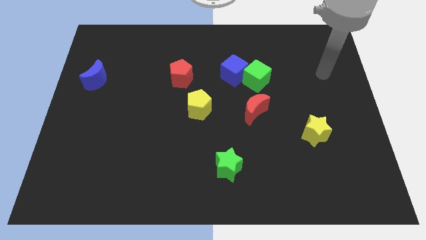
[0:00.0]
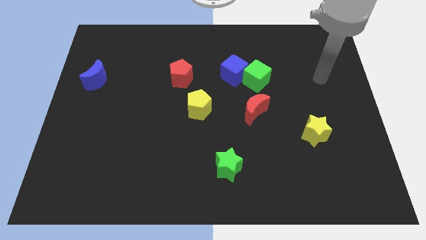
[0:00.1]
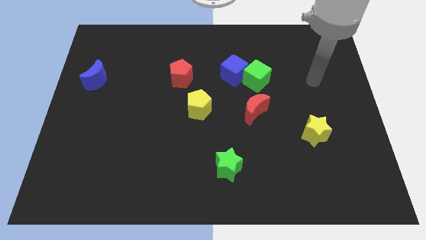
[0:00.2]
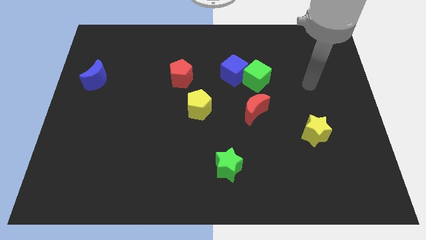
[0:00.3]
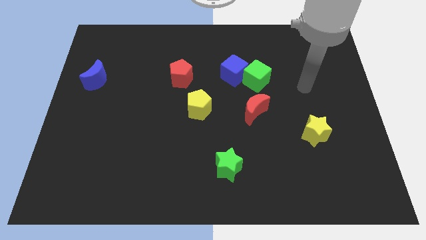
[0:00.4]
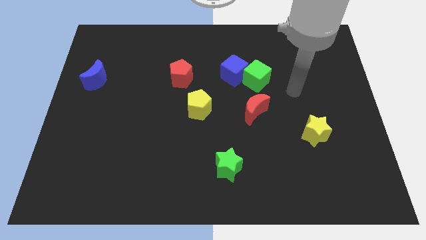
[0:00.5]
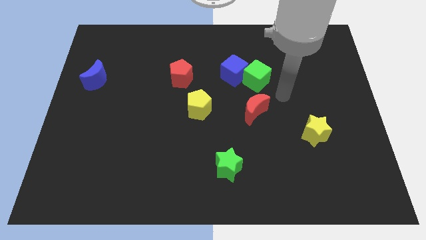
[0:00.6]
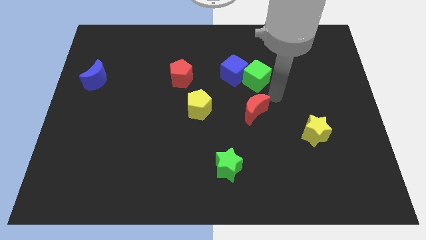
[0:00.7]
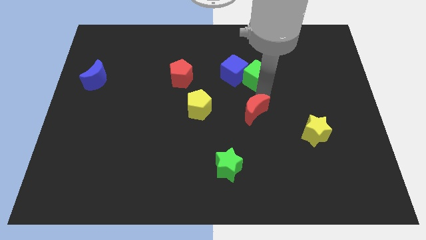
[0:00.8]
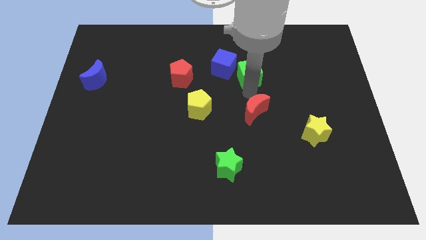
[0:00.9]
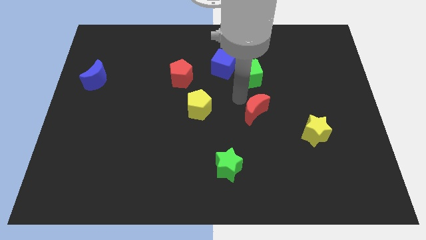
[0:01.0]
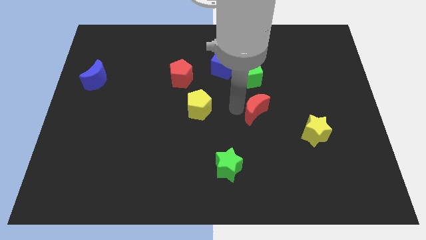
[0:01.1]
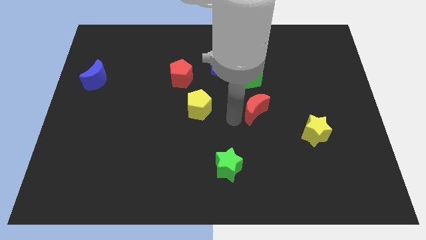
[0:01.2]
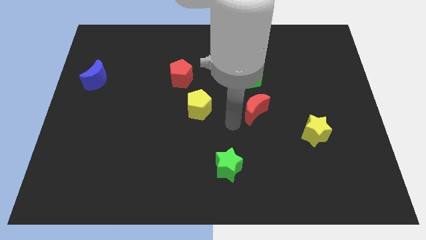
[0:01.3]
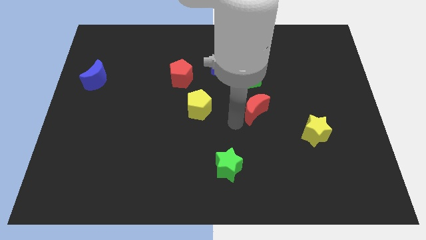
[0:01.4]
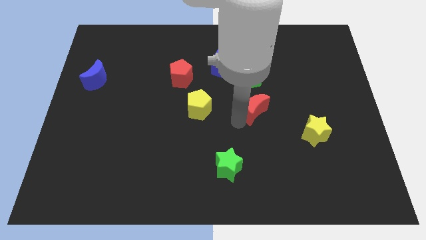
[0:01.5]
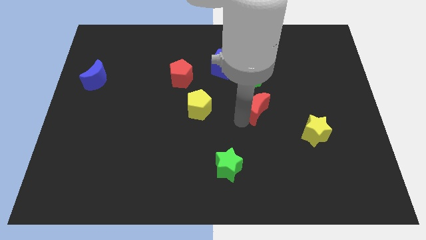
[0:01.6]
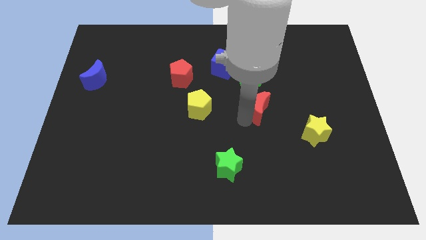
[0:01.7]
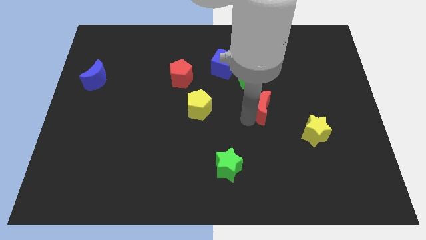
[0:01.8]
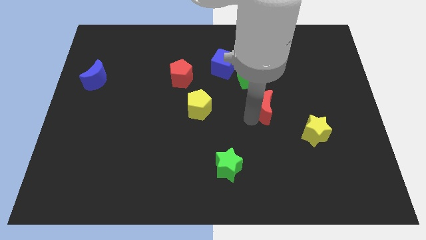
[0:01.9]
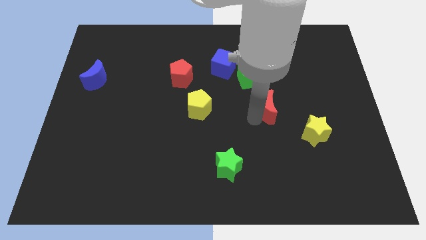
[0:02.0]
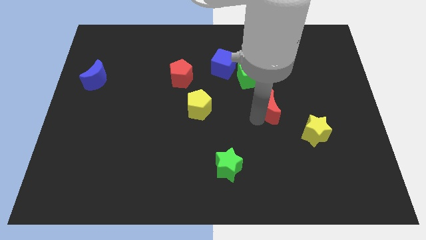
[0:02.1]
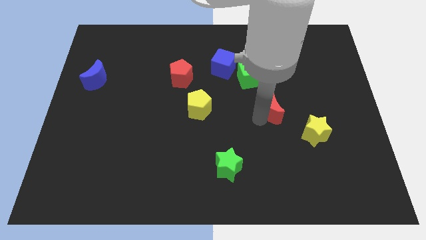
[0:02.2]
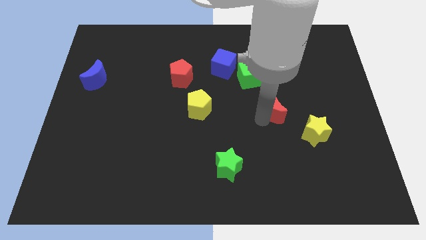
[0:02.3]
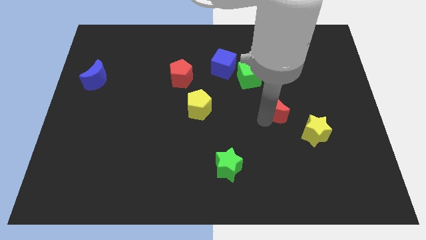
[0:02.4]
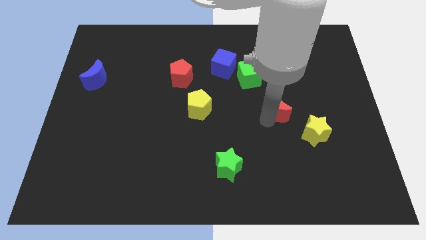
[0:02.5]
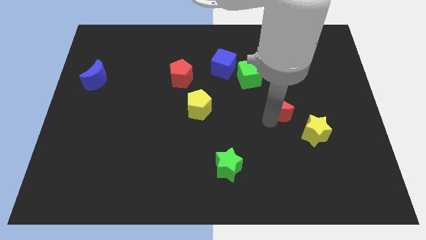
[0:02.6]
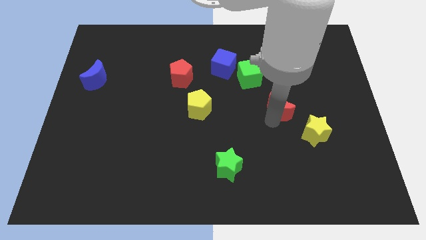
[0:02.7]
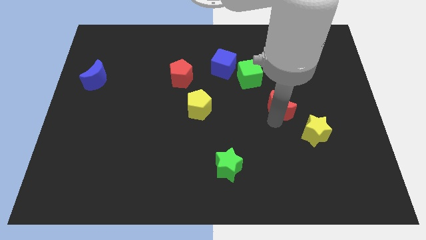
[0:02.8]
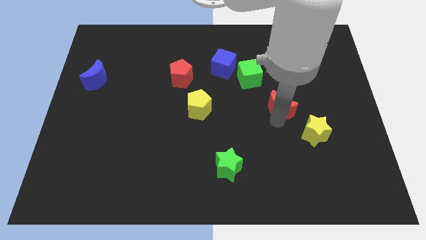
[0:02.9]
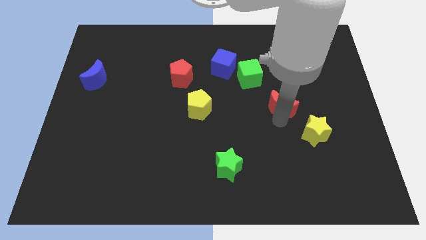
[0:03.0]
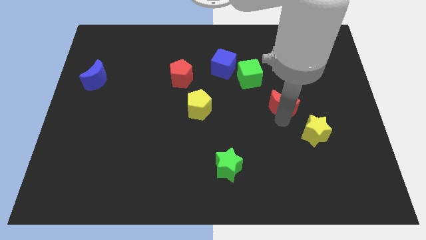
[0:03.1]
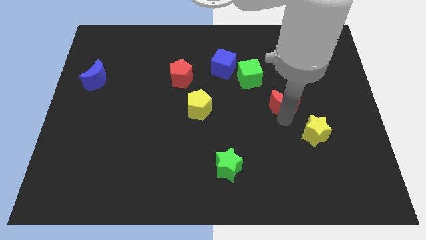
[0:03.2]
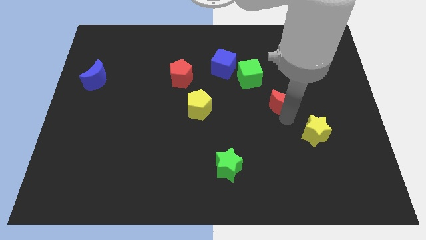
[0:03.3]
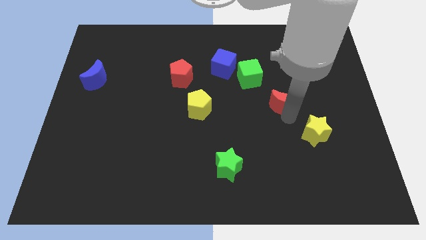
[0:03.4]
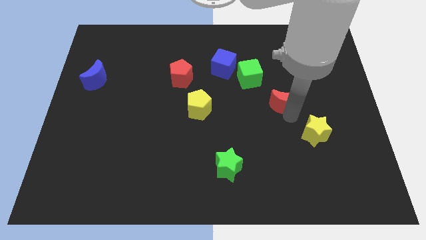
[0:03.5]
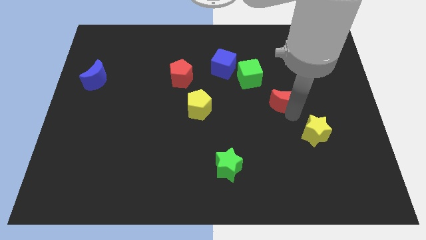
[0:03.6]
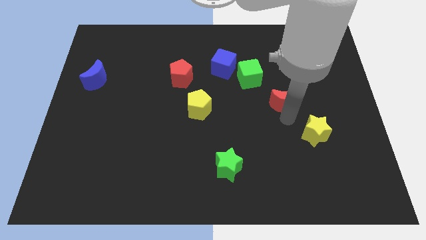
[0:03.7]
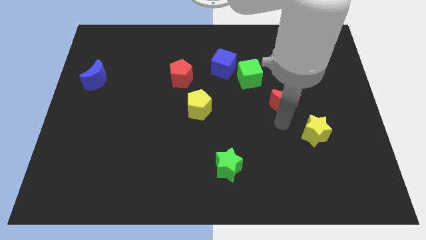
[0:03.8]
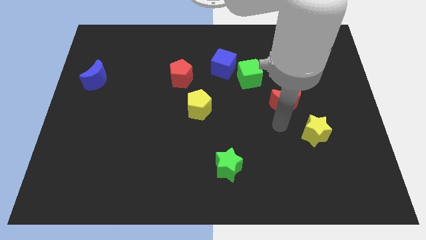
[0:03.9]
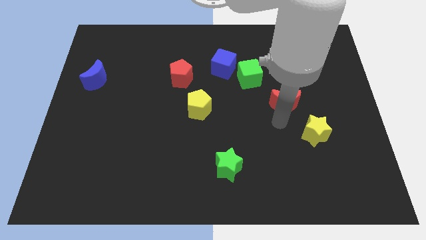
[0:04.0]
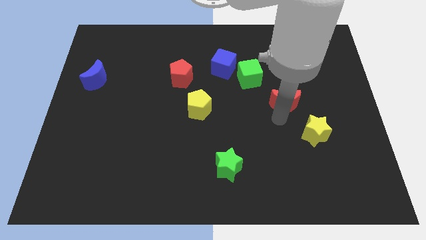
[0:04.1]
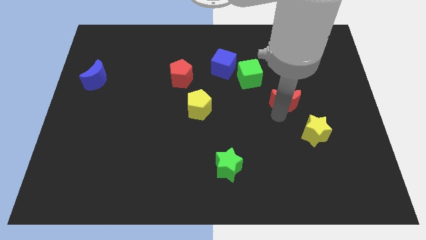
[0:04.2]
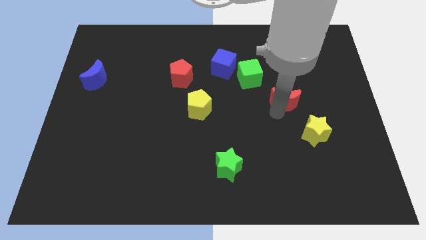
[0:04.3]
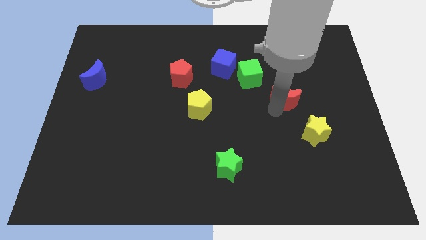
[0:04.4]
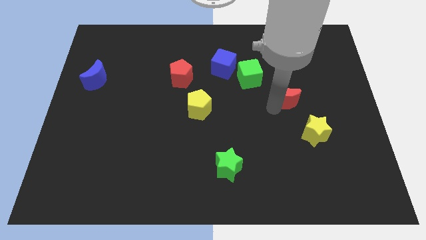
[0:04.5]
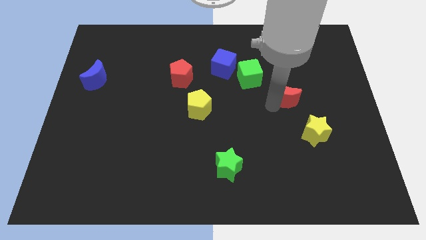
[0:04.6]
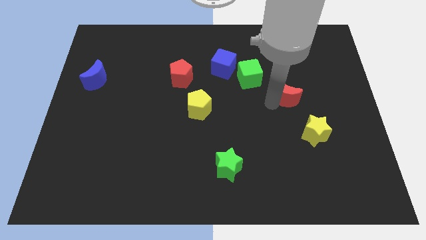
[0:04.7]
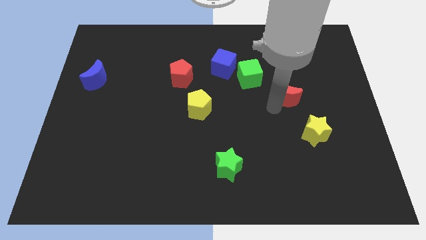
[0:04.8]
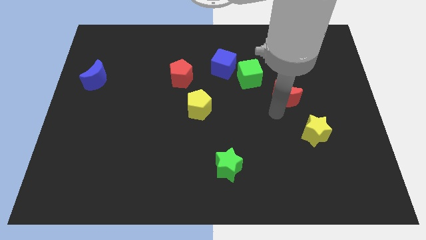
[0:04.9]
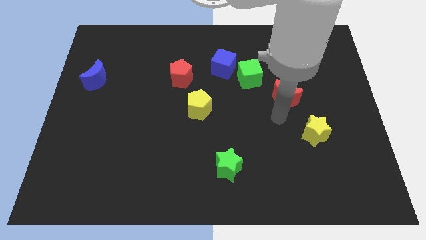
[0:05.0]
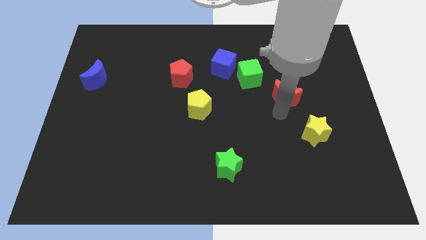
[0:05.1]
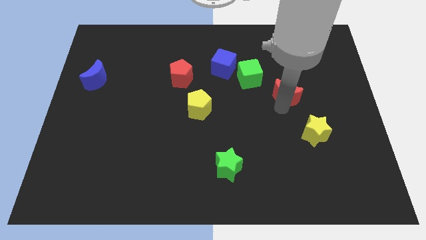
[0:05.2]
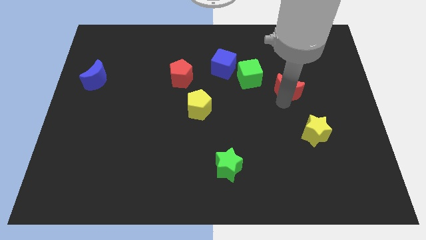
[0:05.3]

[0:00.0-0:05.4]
put the red moon right of the green cube

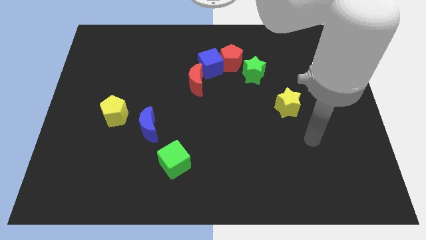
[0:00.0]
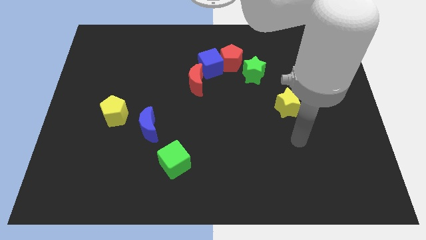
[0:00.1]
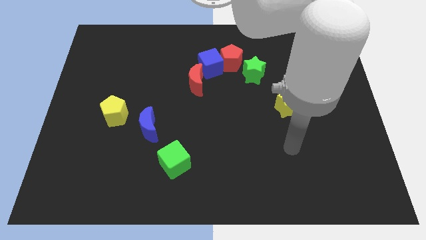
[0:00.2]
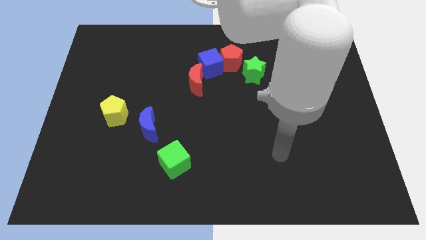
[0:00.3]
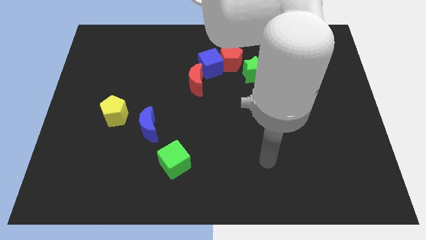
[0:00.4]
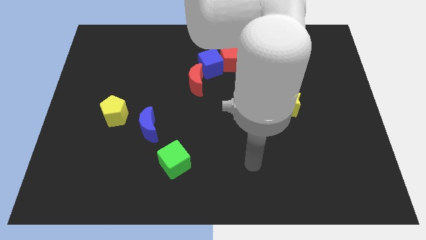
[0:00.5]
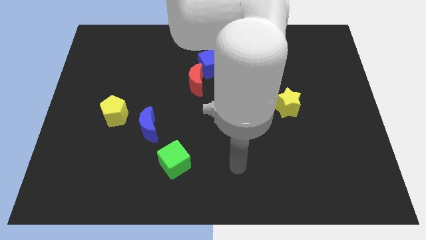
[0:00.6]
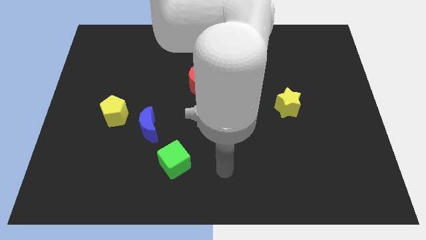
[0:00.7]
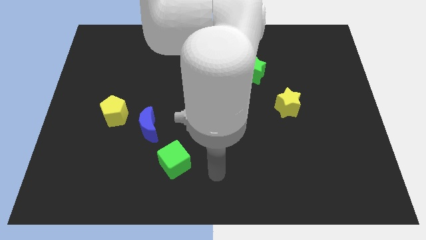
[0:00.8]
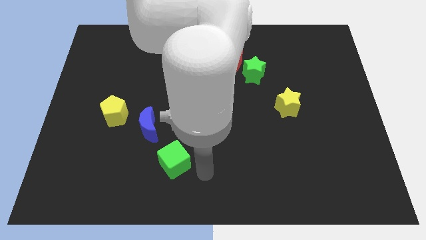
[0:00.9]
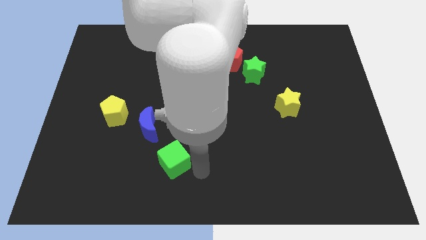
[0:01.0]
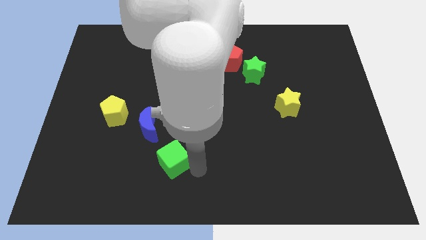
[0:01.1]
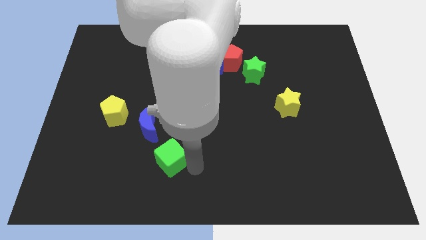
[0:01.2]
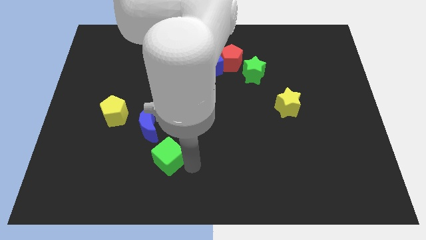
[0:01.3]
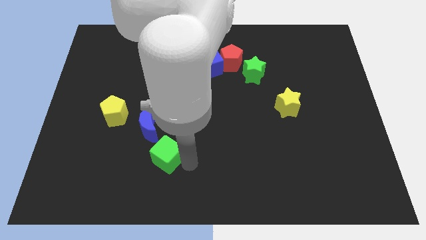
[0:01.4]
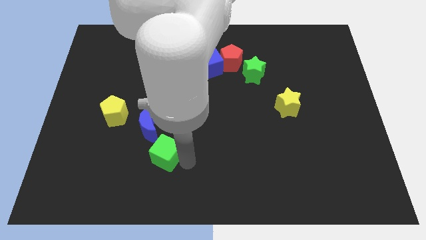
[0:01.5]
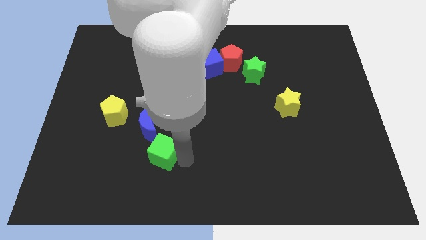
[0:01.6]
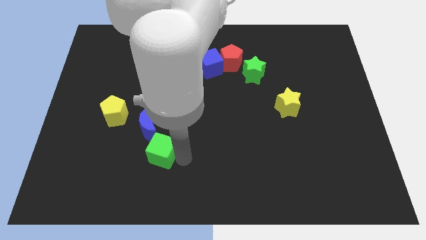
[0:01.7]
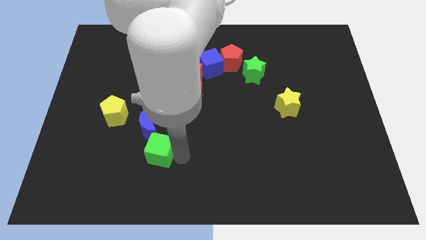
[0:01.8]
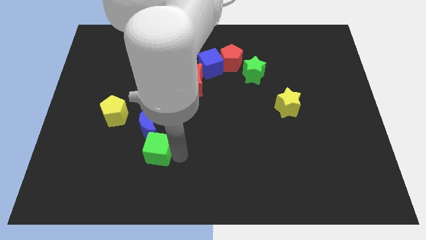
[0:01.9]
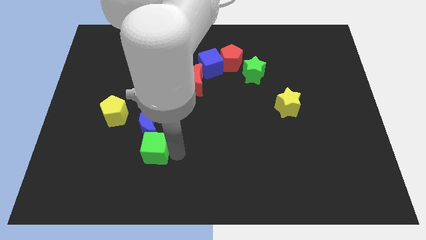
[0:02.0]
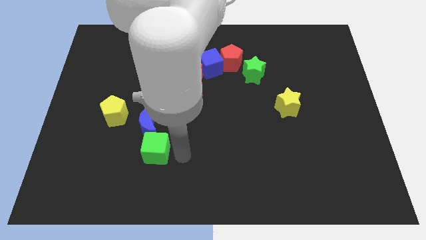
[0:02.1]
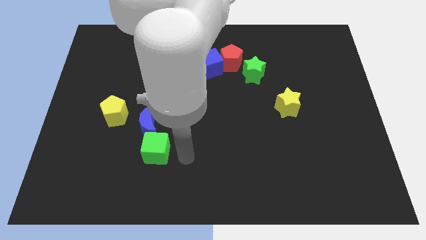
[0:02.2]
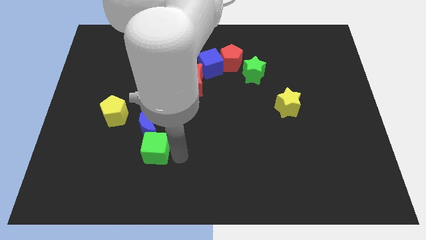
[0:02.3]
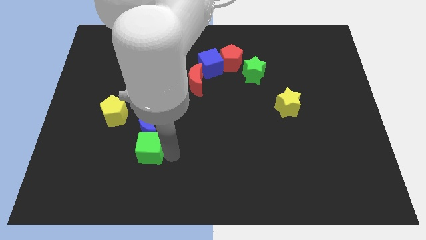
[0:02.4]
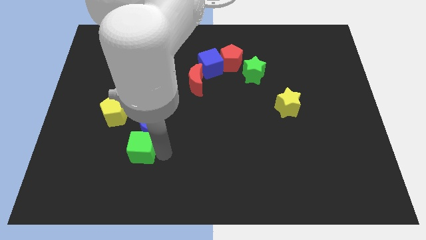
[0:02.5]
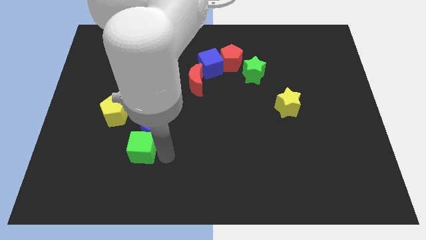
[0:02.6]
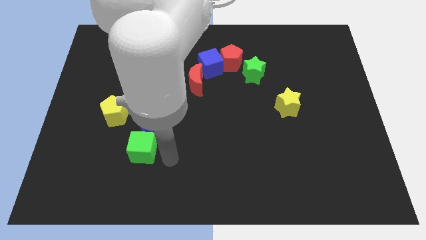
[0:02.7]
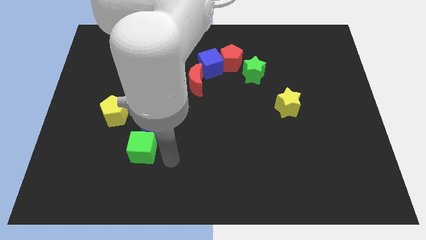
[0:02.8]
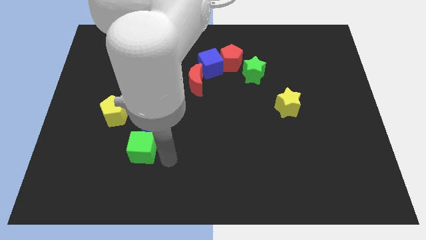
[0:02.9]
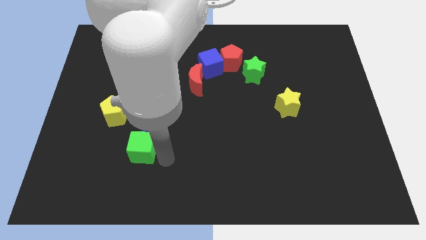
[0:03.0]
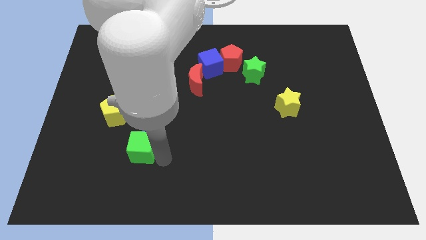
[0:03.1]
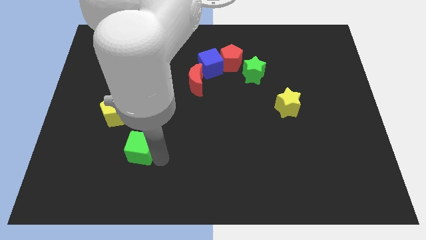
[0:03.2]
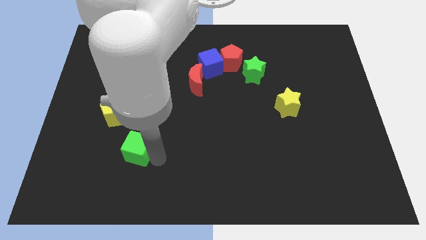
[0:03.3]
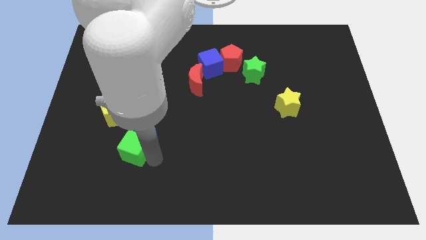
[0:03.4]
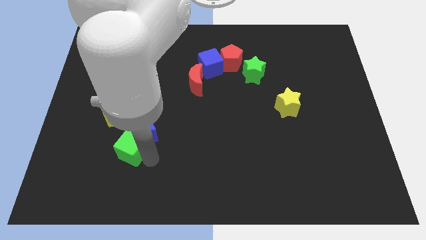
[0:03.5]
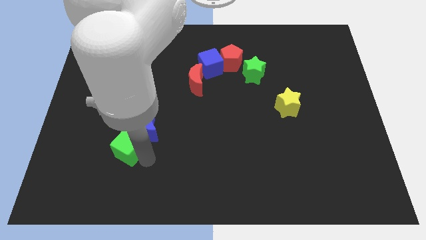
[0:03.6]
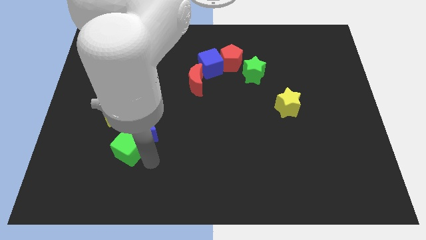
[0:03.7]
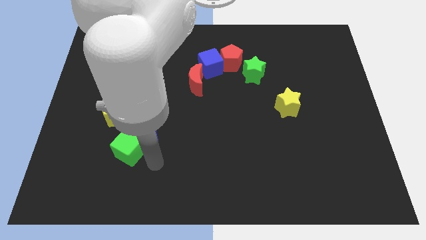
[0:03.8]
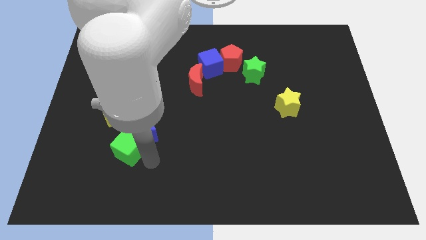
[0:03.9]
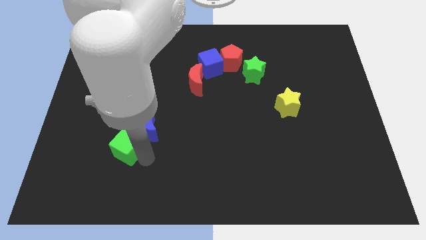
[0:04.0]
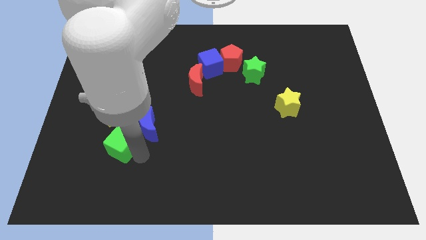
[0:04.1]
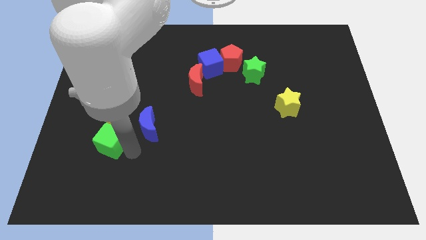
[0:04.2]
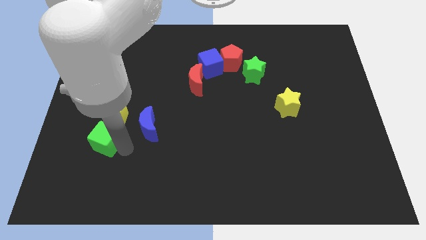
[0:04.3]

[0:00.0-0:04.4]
move the green cube diagonally down and to the left of the yellow pentagon
